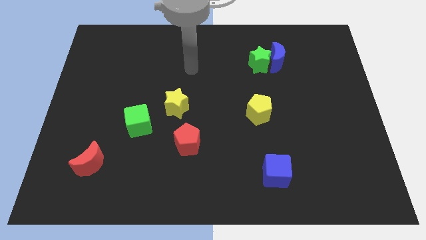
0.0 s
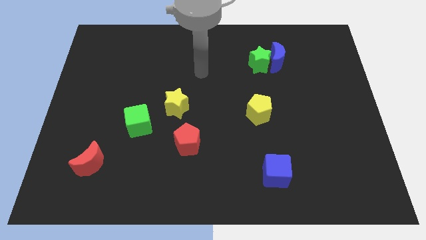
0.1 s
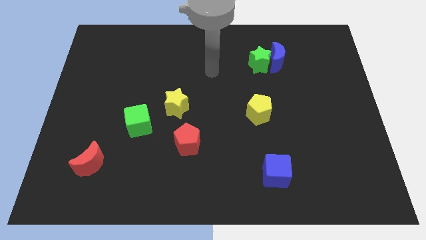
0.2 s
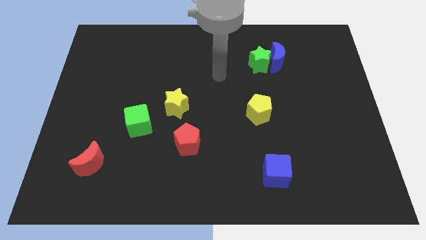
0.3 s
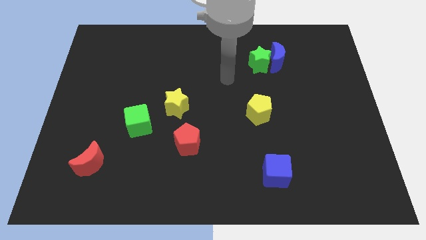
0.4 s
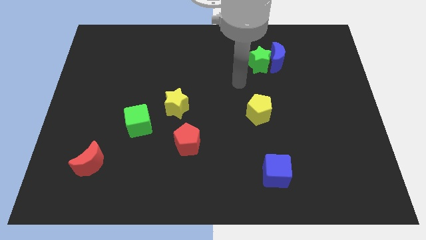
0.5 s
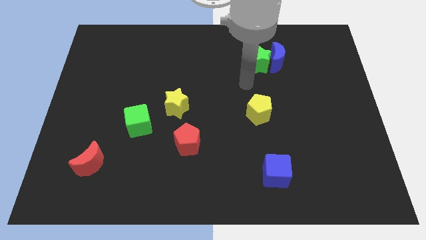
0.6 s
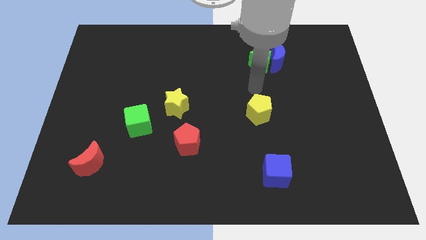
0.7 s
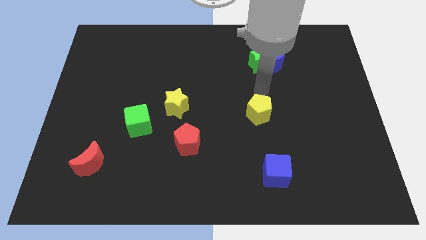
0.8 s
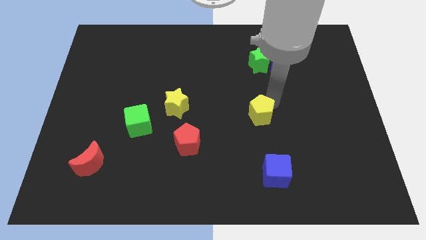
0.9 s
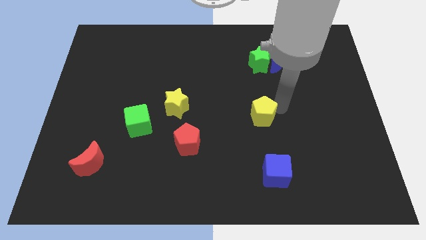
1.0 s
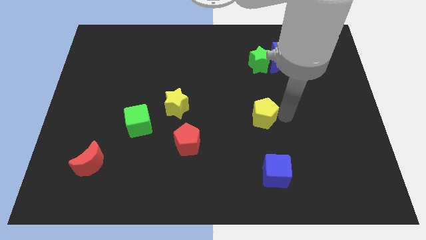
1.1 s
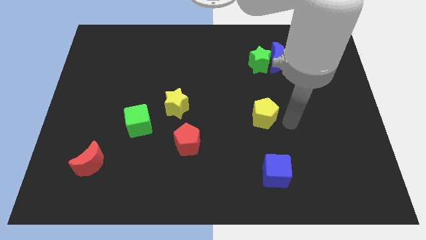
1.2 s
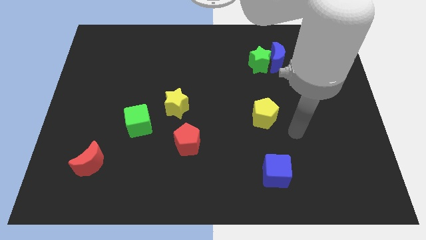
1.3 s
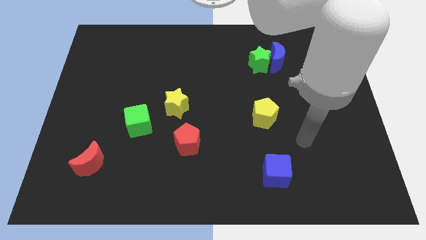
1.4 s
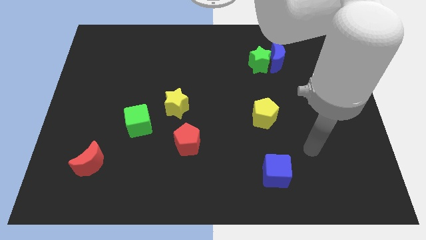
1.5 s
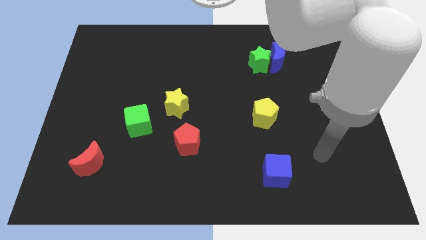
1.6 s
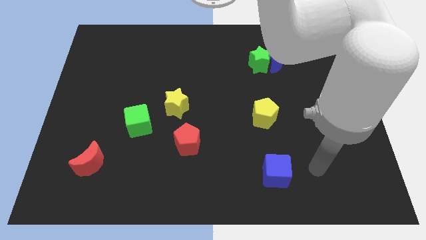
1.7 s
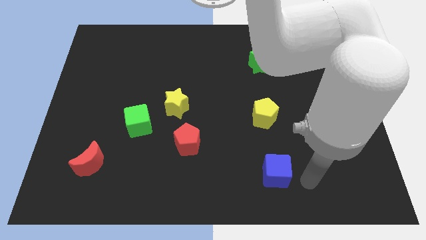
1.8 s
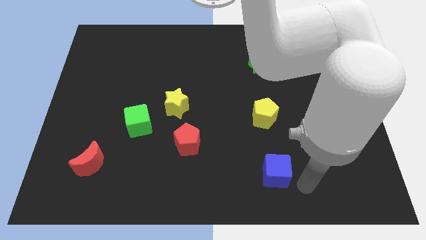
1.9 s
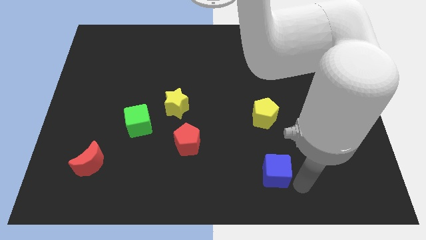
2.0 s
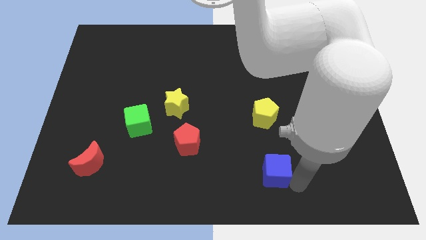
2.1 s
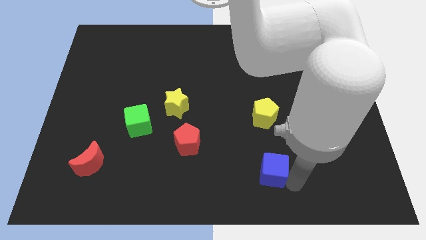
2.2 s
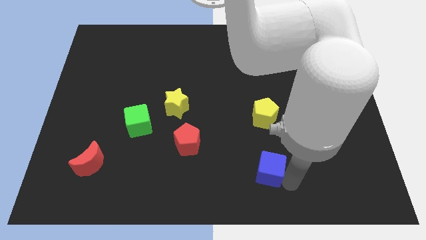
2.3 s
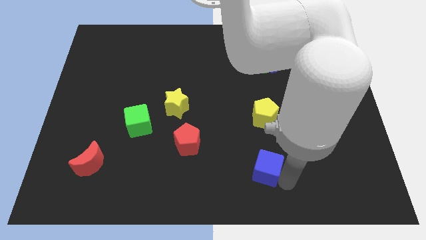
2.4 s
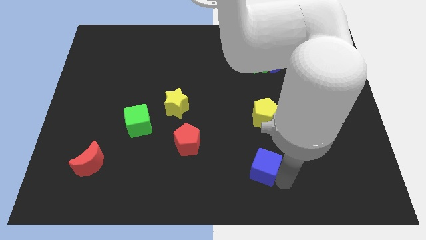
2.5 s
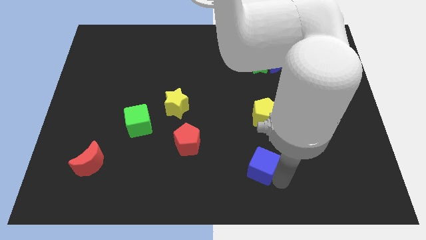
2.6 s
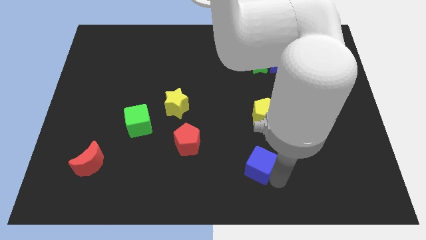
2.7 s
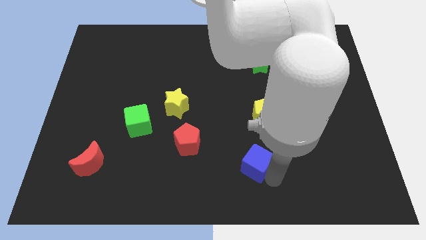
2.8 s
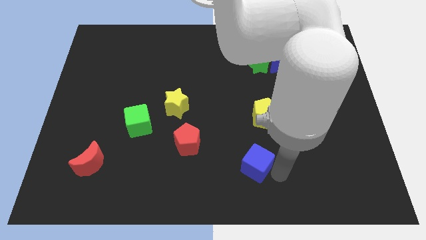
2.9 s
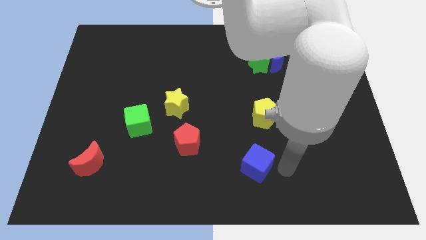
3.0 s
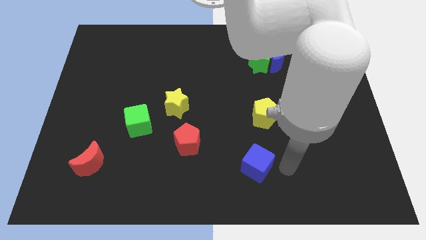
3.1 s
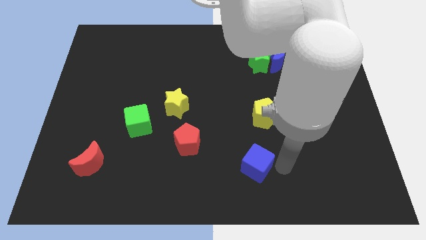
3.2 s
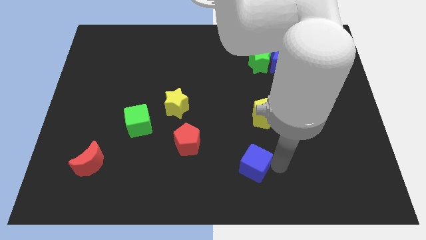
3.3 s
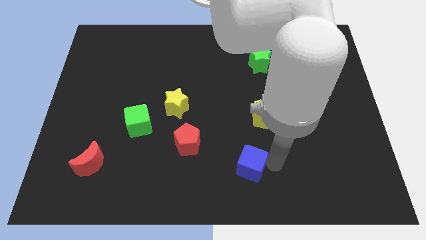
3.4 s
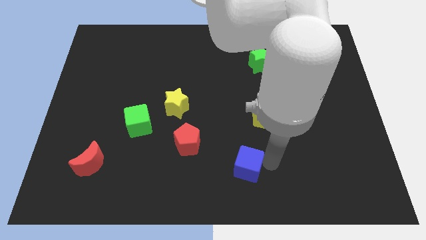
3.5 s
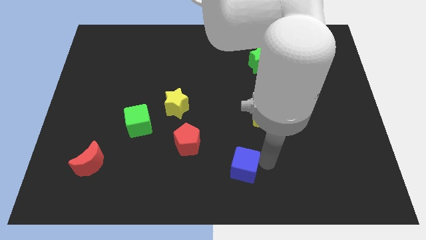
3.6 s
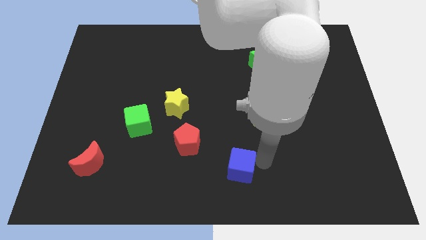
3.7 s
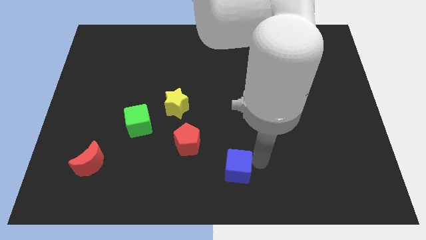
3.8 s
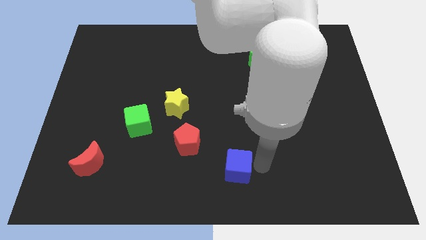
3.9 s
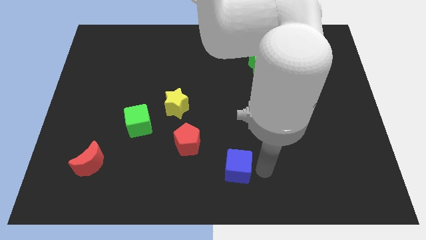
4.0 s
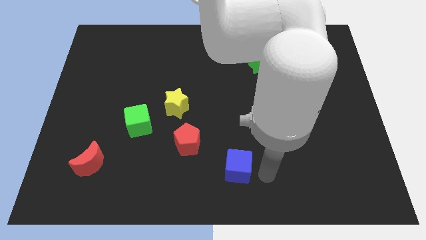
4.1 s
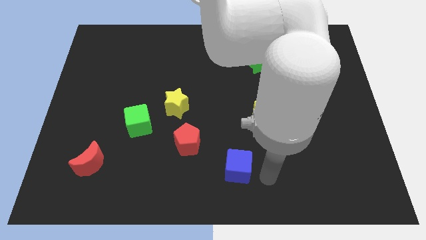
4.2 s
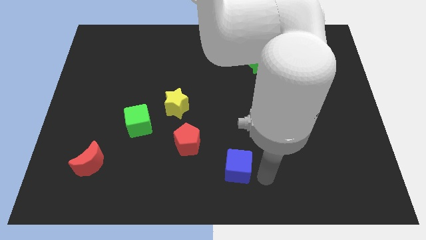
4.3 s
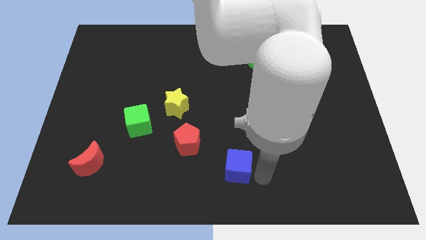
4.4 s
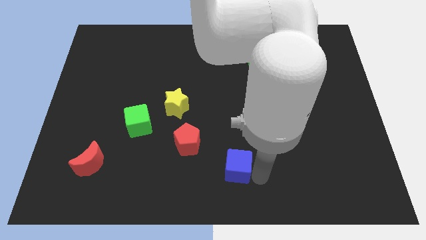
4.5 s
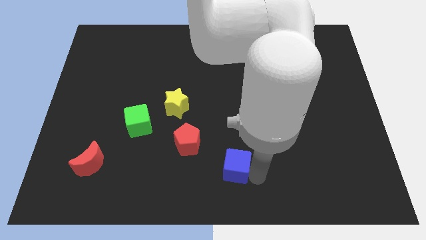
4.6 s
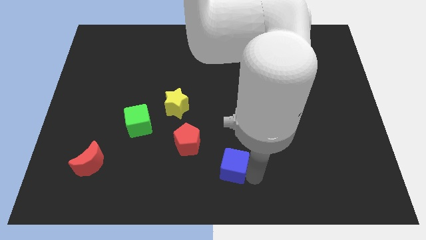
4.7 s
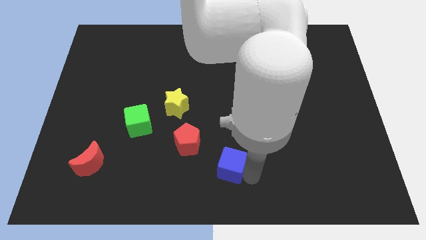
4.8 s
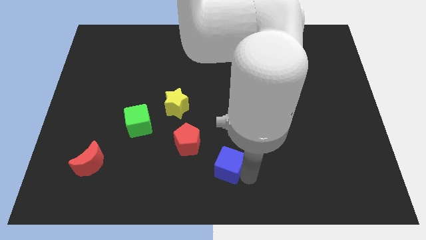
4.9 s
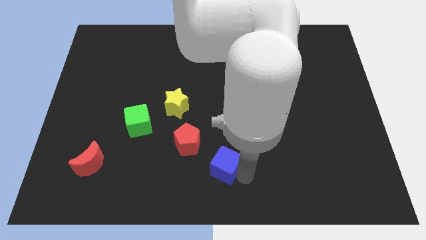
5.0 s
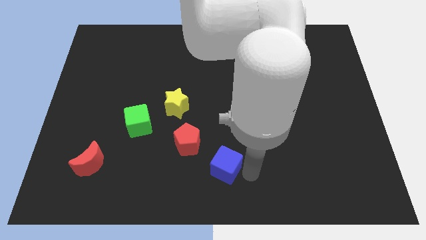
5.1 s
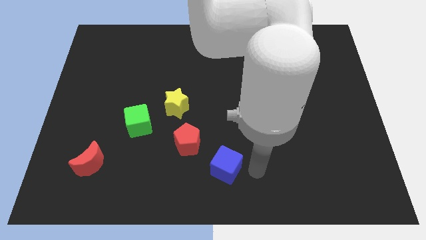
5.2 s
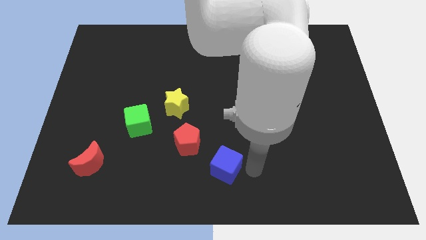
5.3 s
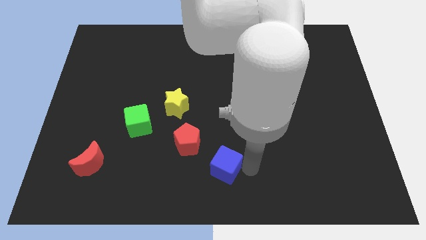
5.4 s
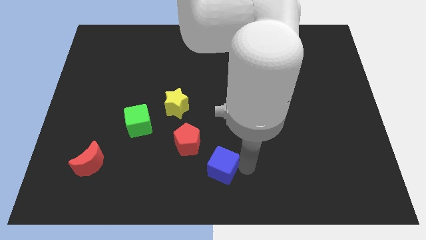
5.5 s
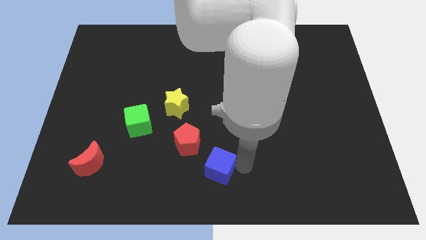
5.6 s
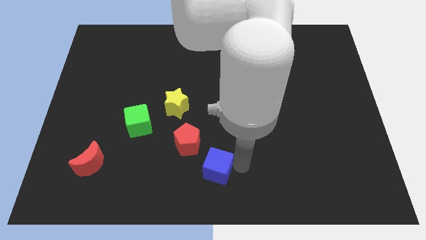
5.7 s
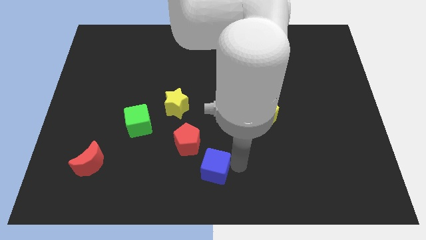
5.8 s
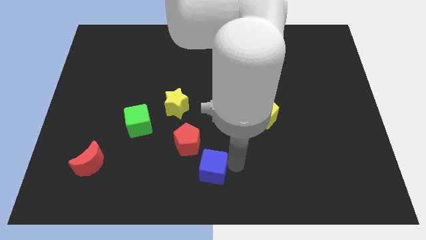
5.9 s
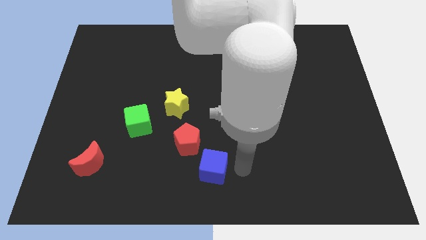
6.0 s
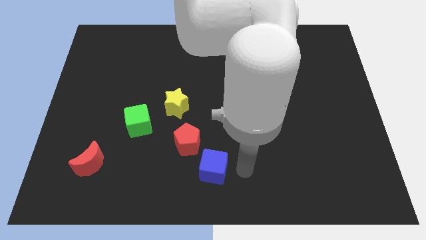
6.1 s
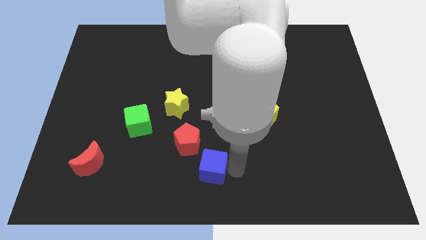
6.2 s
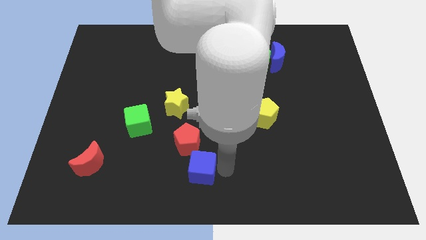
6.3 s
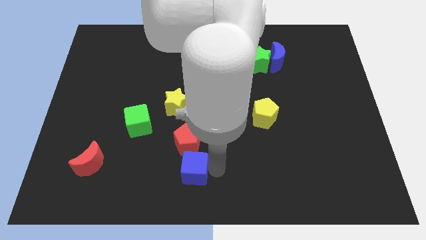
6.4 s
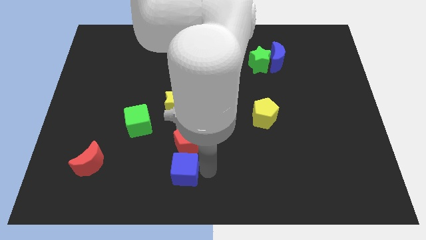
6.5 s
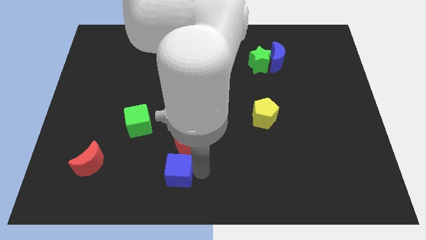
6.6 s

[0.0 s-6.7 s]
move the blue cube to the left

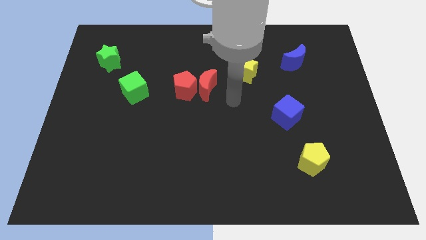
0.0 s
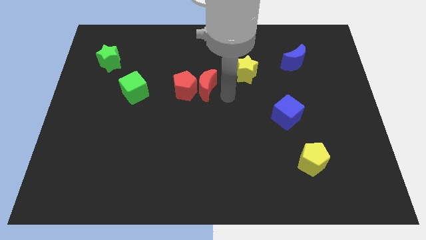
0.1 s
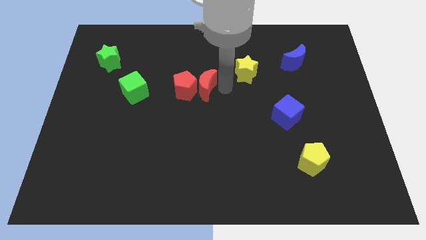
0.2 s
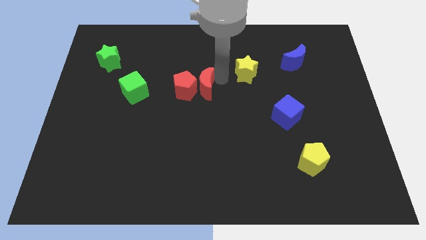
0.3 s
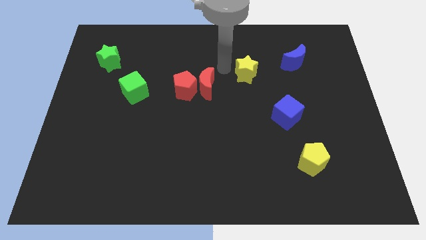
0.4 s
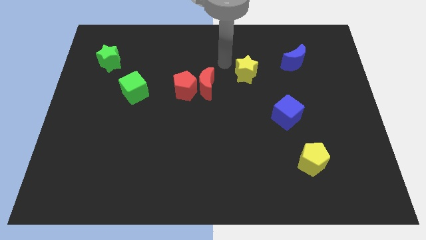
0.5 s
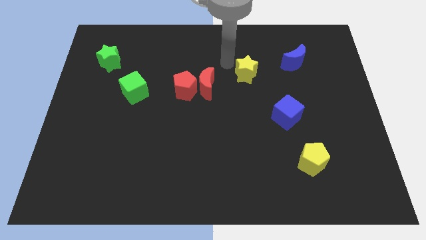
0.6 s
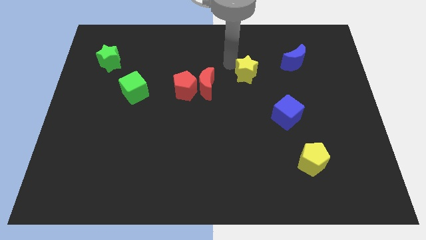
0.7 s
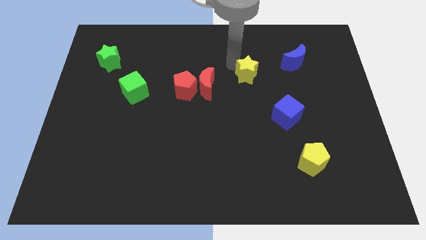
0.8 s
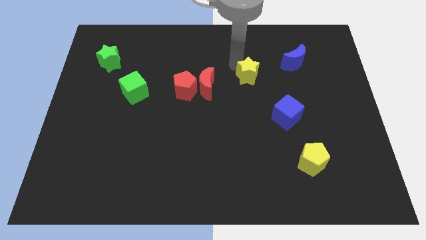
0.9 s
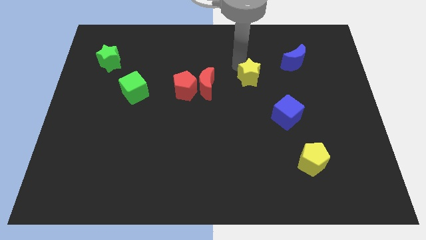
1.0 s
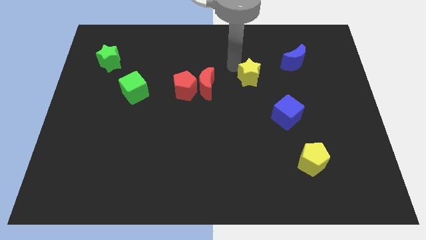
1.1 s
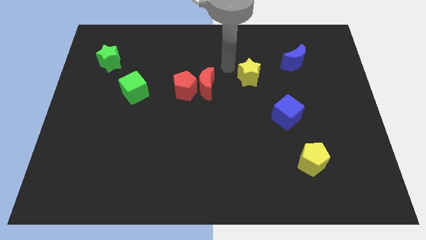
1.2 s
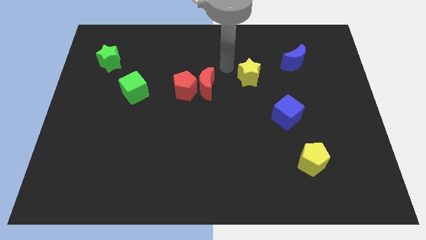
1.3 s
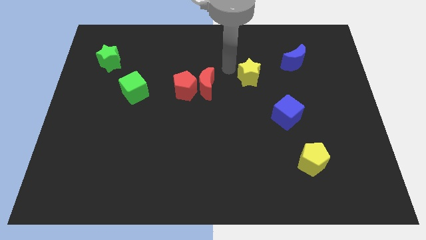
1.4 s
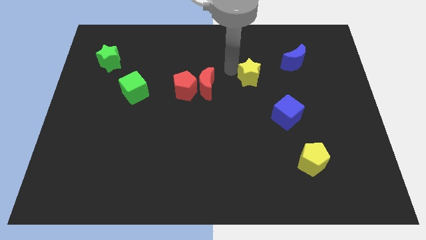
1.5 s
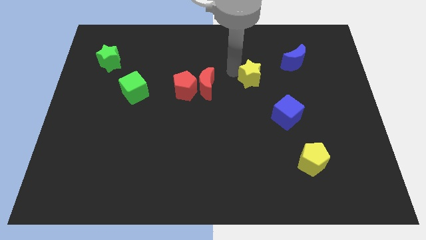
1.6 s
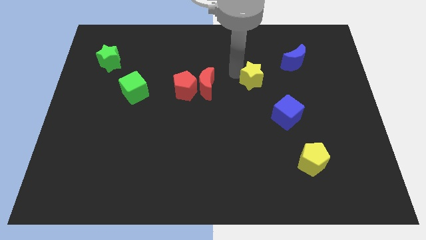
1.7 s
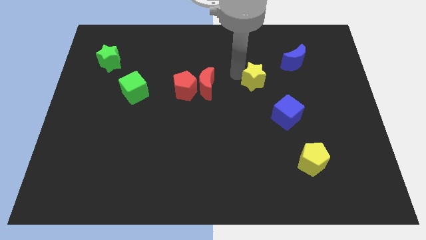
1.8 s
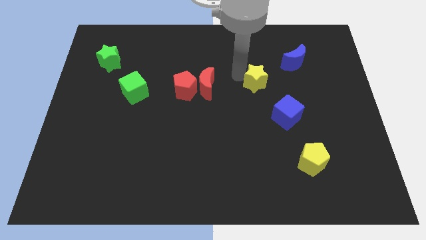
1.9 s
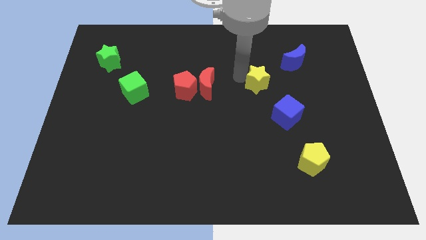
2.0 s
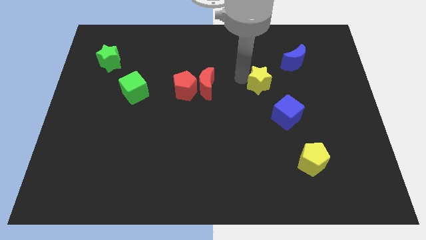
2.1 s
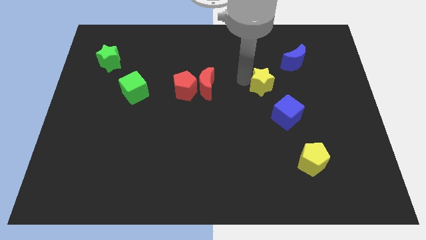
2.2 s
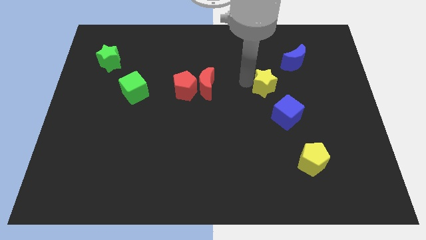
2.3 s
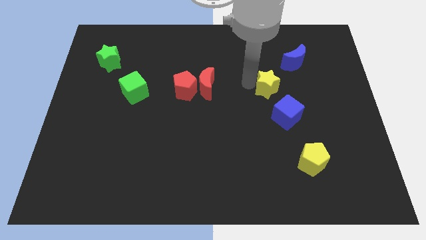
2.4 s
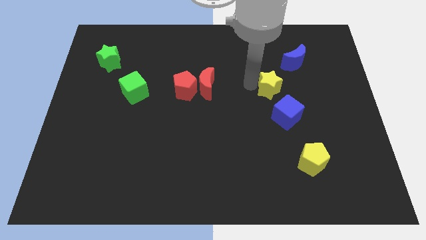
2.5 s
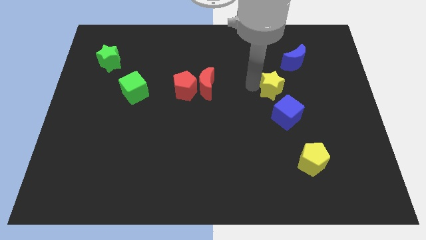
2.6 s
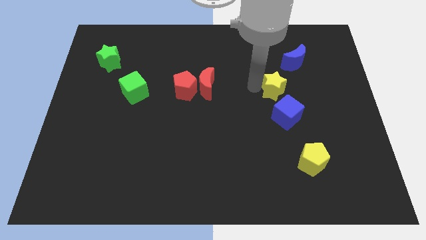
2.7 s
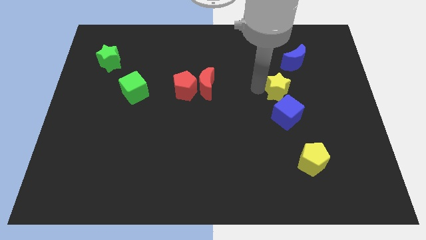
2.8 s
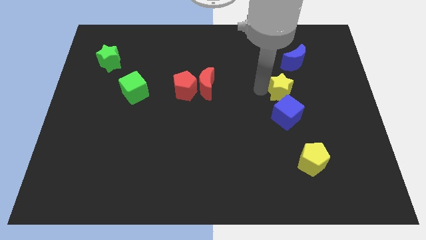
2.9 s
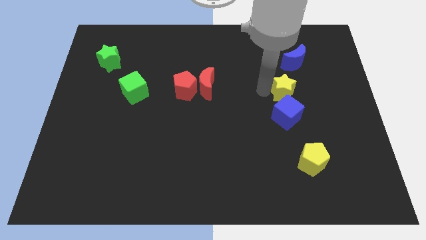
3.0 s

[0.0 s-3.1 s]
push the yellow star slightly right
